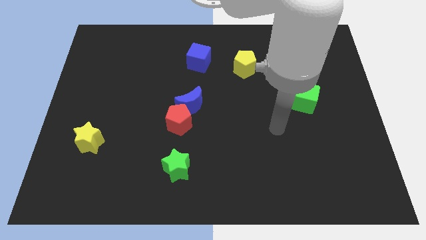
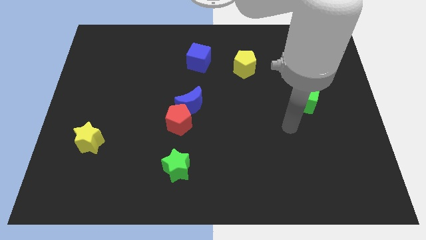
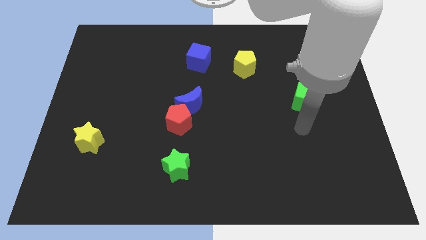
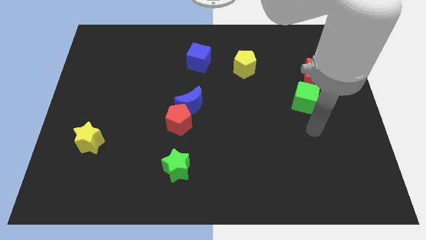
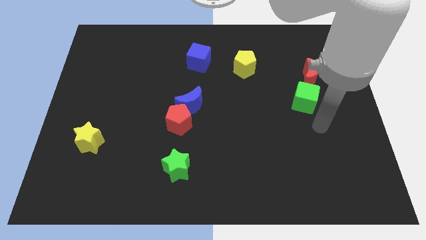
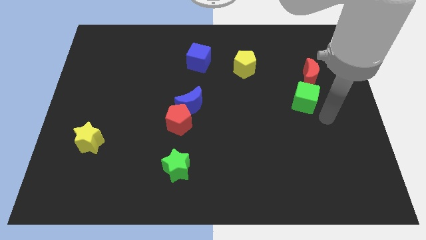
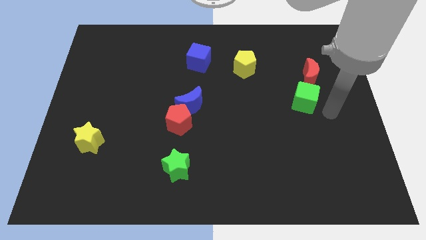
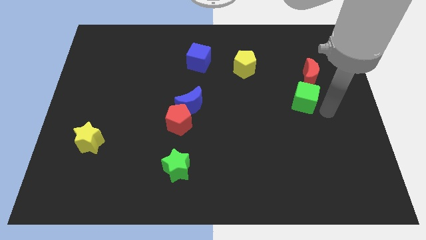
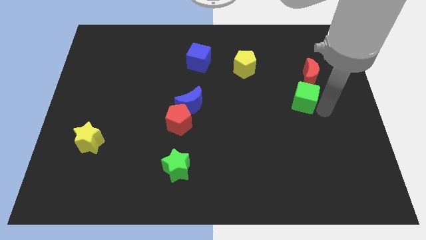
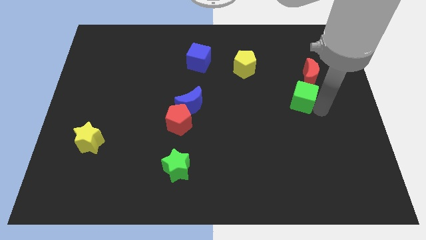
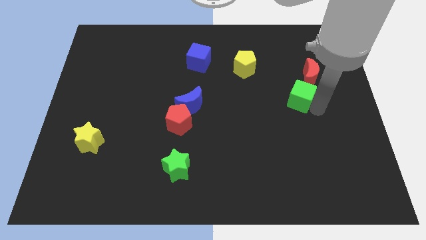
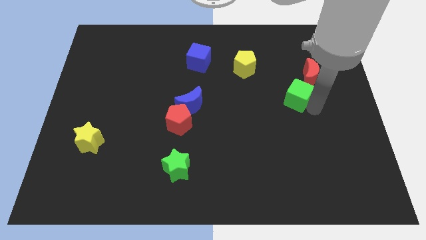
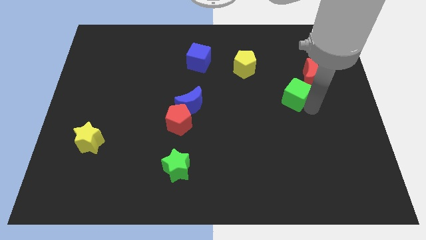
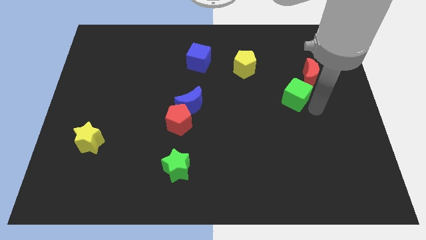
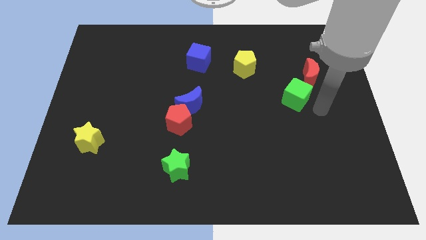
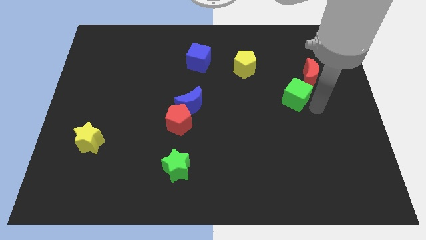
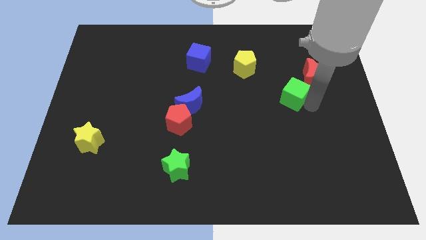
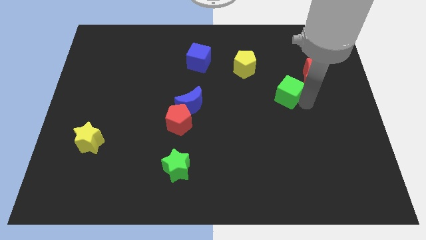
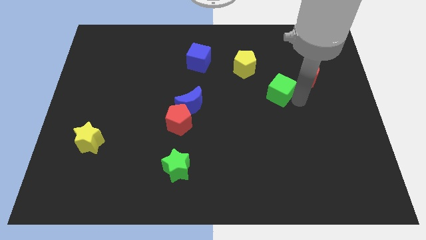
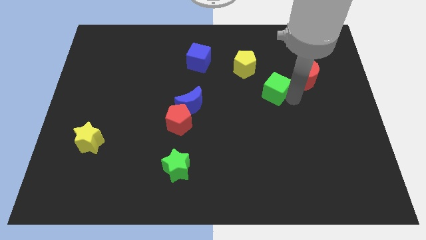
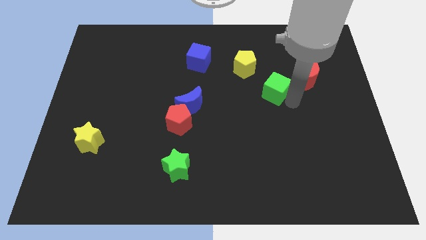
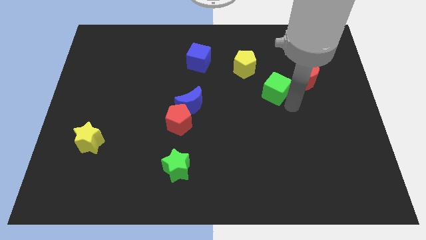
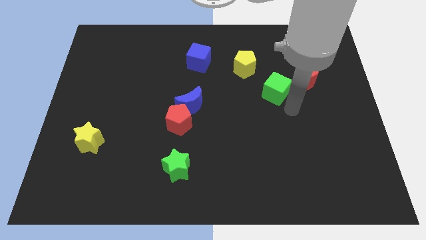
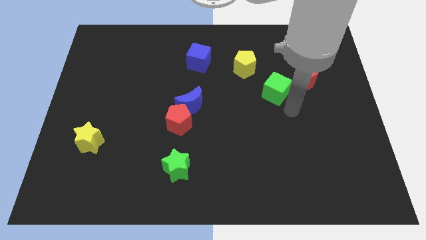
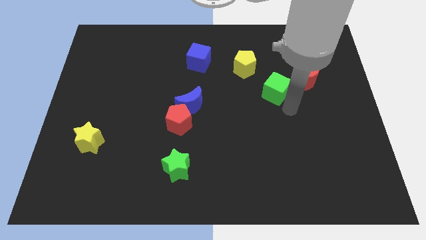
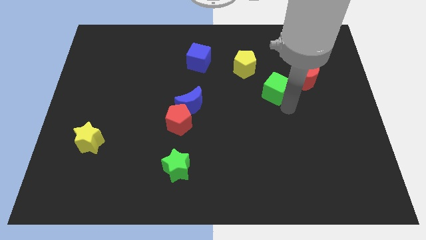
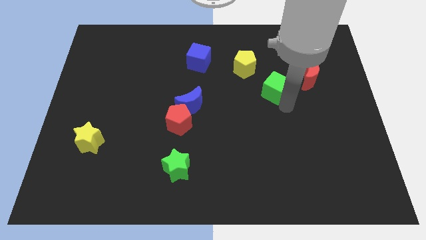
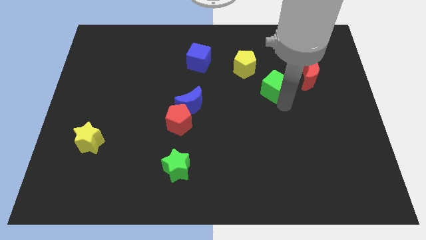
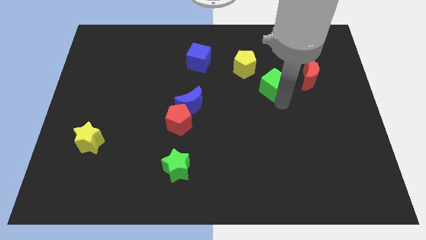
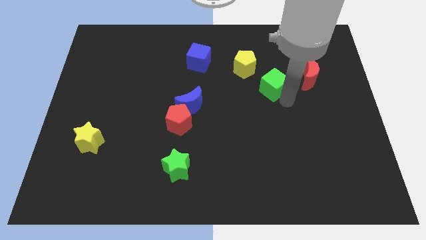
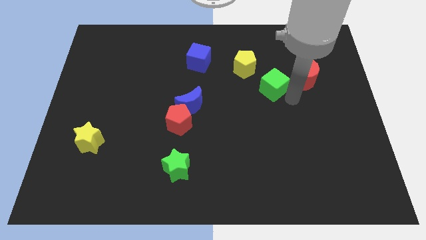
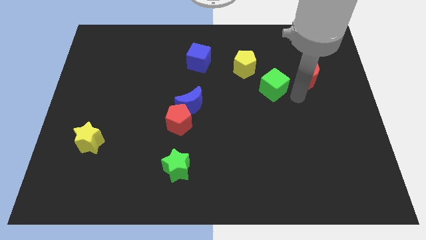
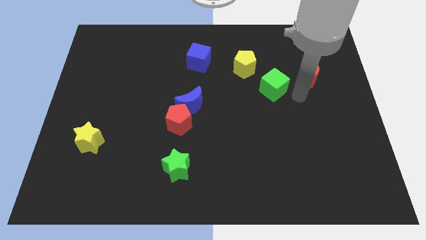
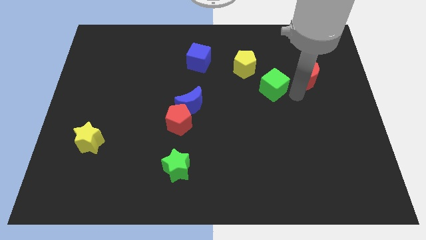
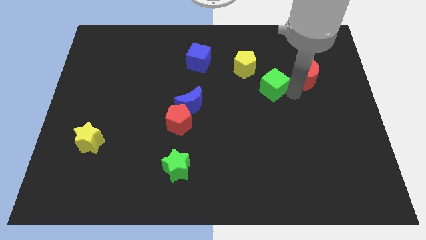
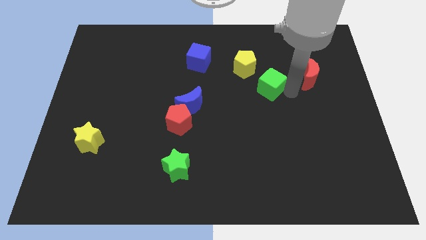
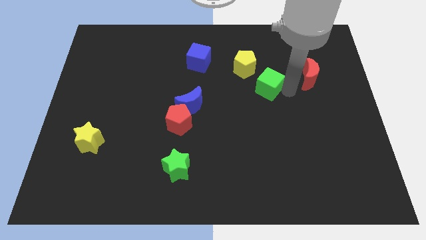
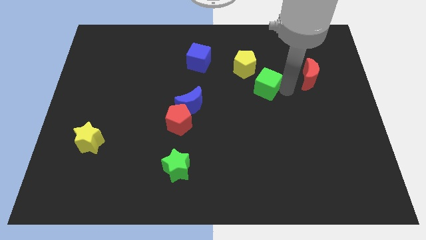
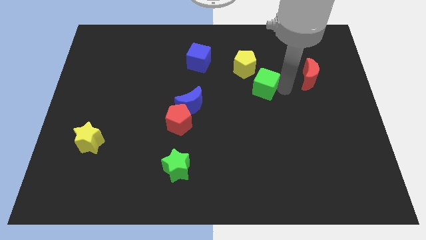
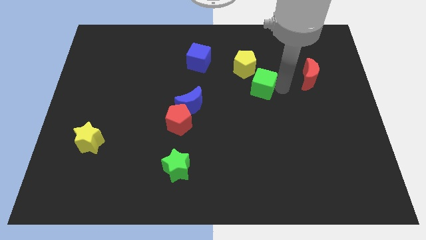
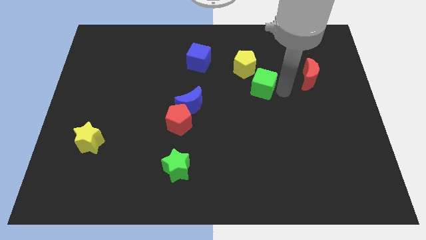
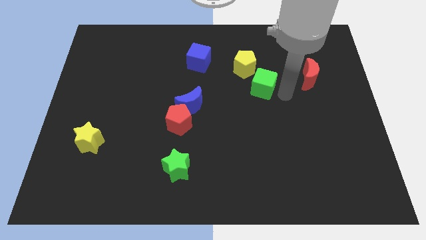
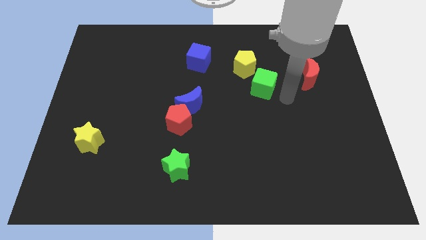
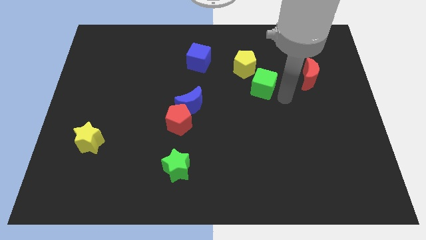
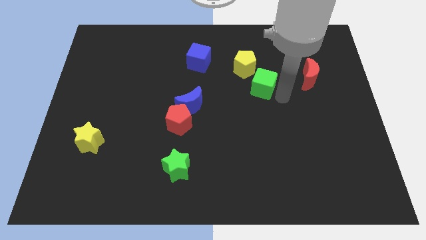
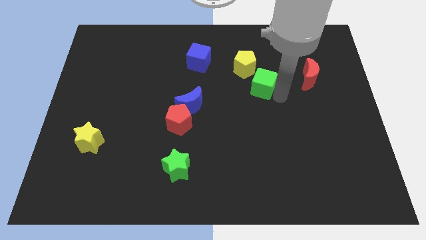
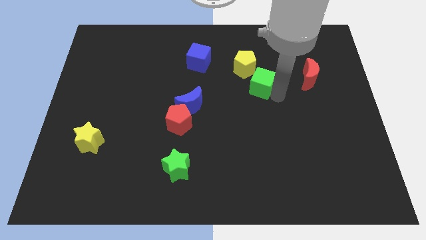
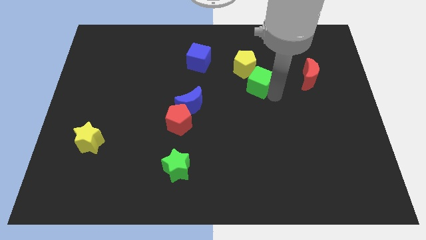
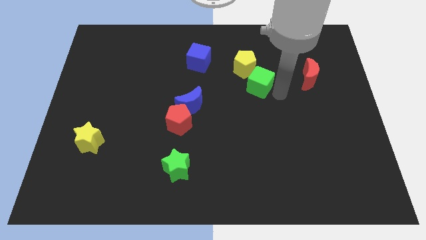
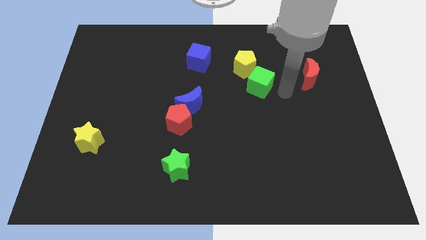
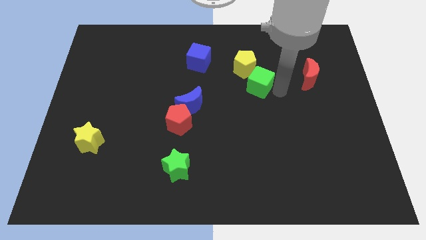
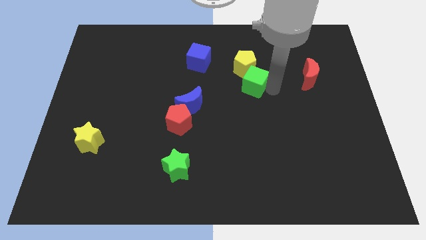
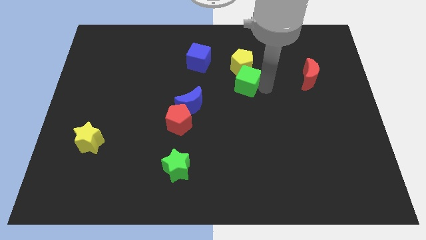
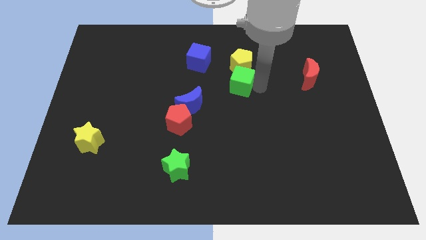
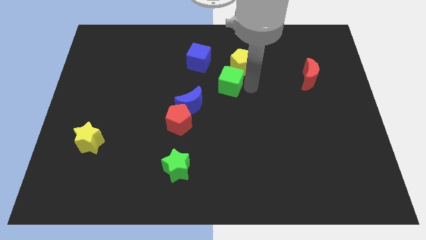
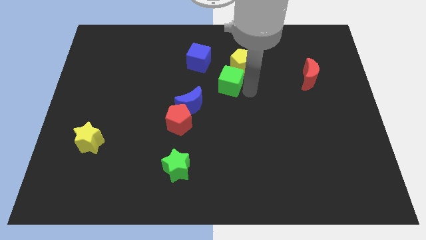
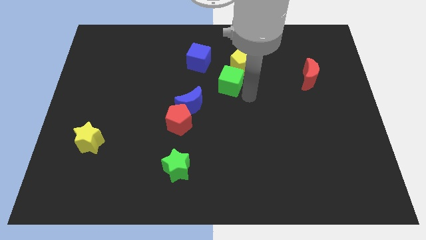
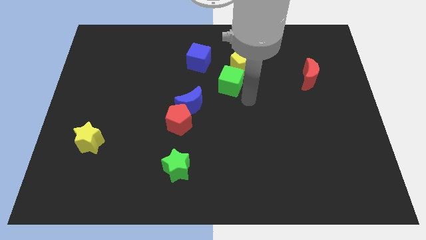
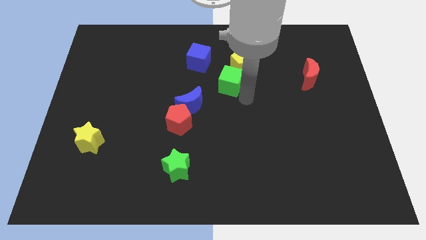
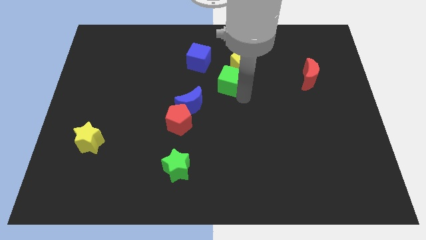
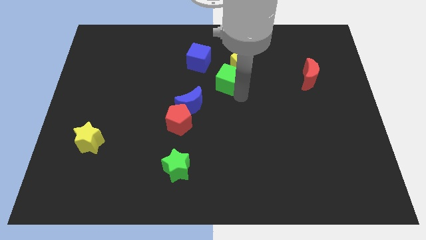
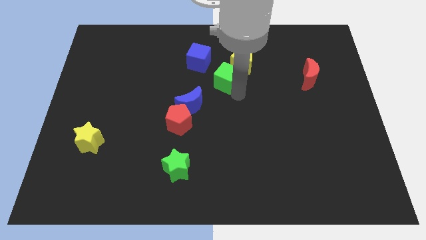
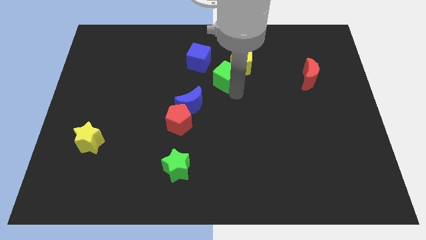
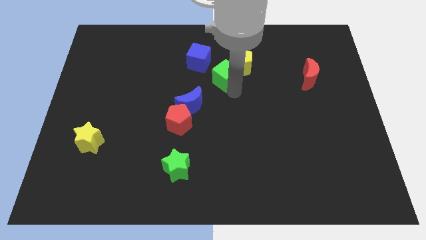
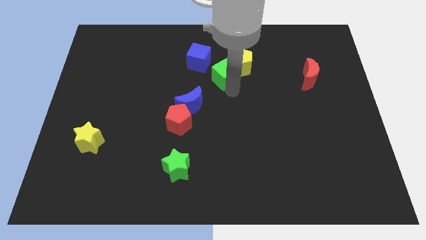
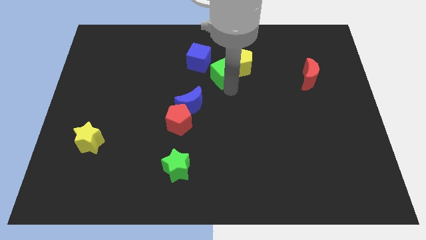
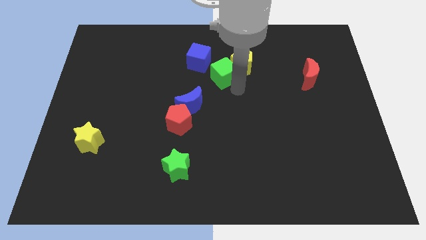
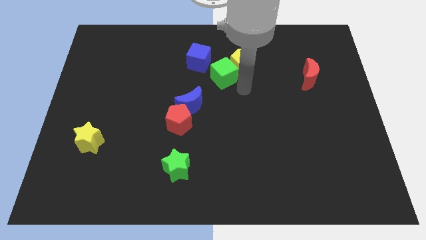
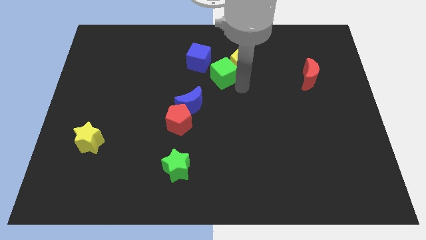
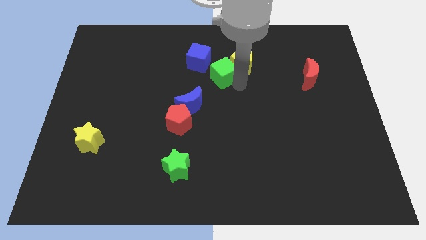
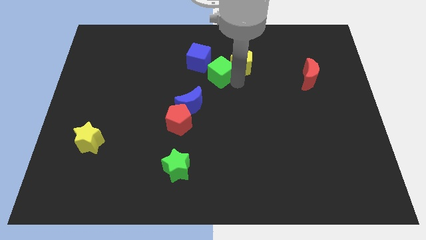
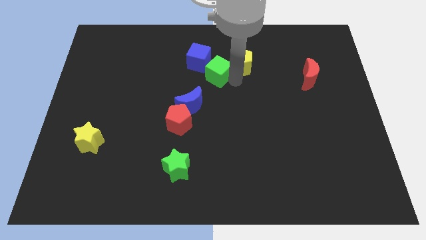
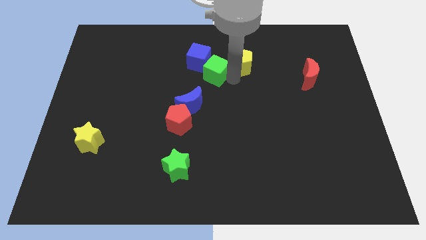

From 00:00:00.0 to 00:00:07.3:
move the green cube towards the blue cube
